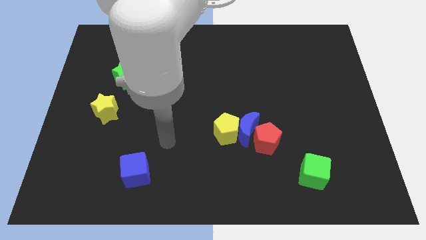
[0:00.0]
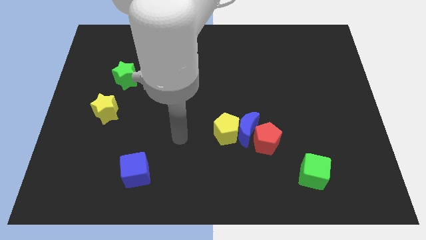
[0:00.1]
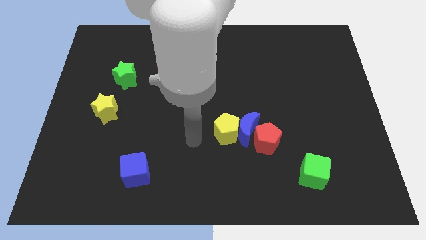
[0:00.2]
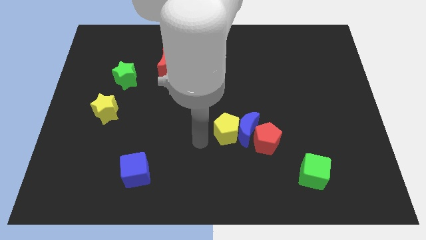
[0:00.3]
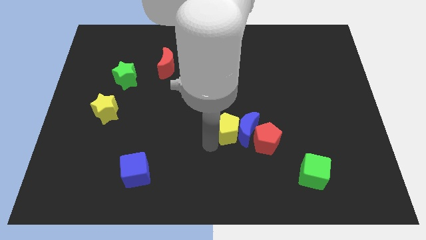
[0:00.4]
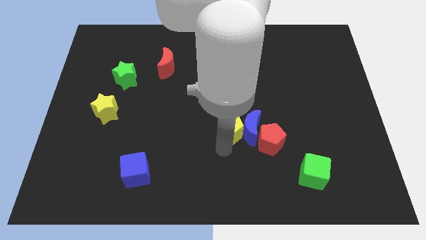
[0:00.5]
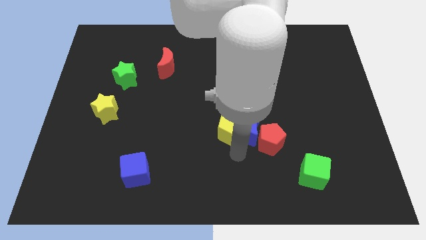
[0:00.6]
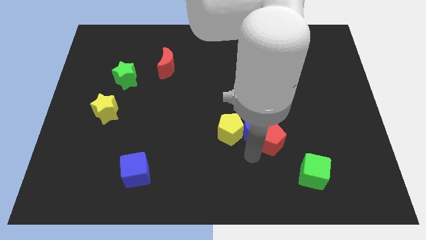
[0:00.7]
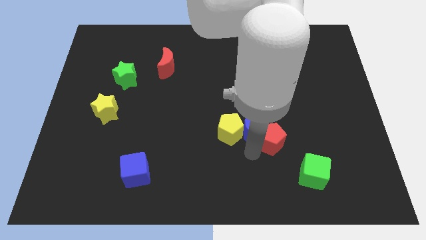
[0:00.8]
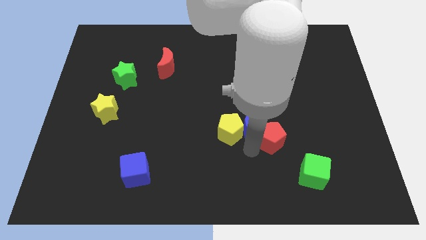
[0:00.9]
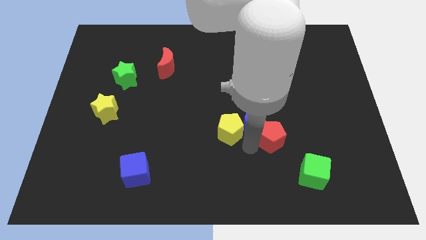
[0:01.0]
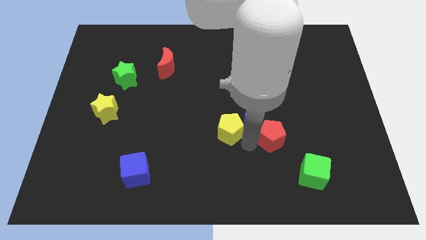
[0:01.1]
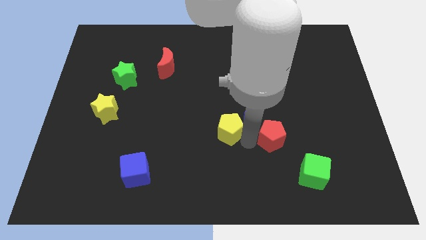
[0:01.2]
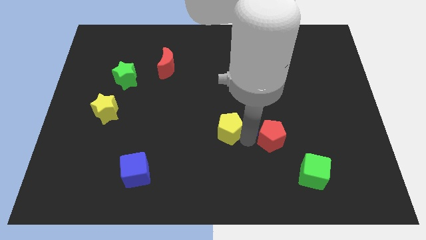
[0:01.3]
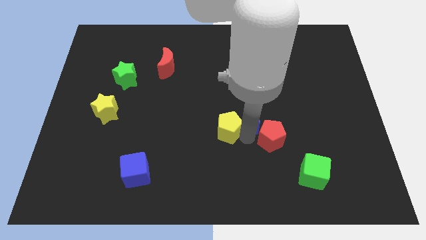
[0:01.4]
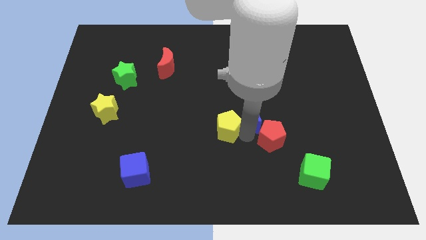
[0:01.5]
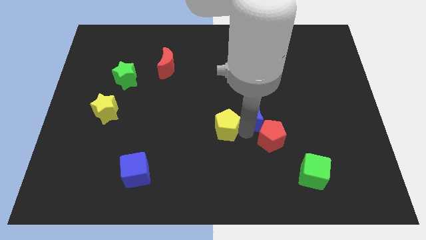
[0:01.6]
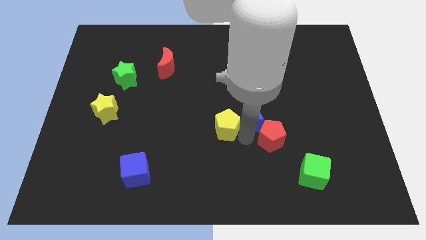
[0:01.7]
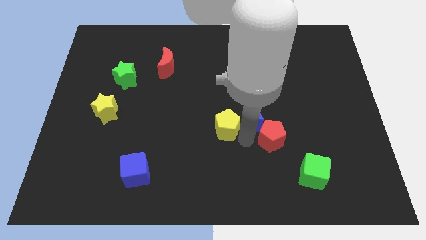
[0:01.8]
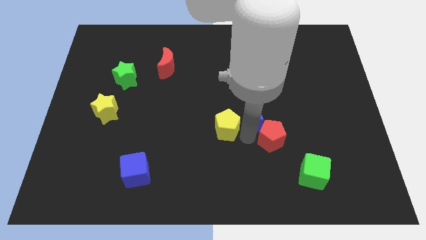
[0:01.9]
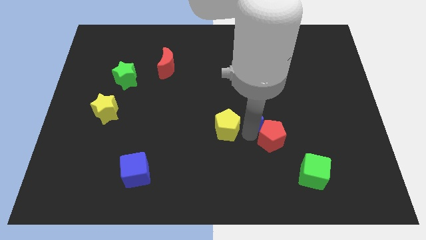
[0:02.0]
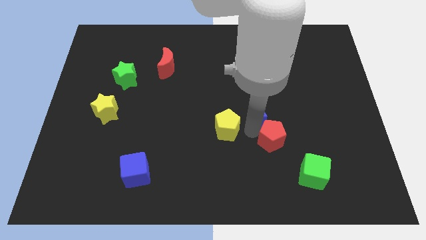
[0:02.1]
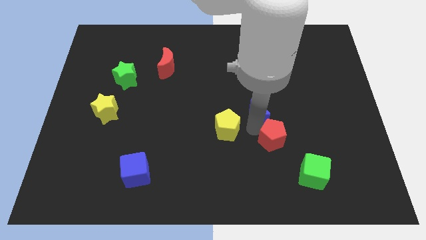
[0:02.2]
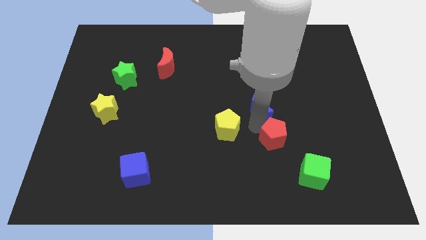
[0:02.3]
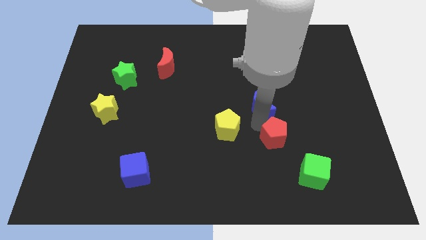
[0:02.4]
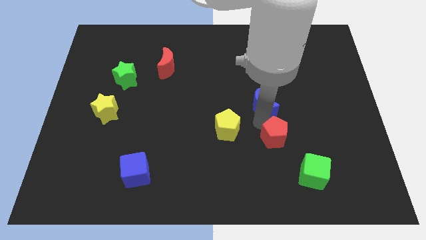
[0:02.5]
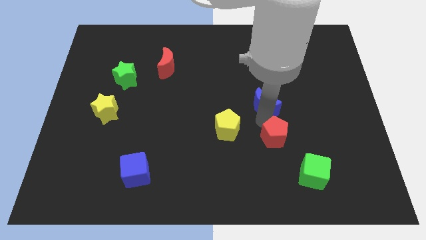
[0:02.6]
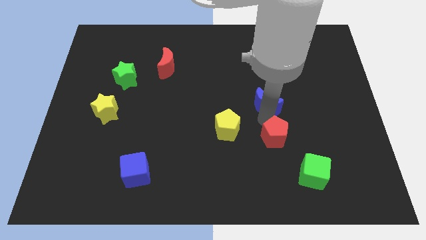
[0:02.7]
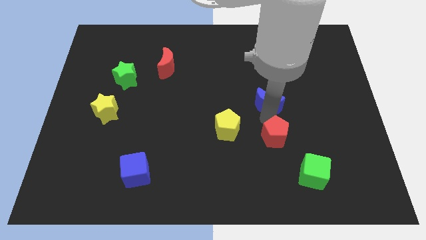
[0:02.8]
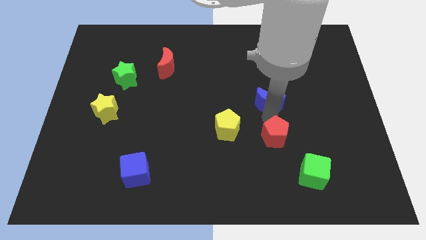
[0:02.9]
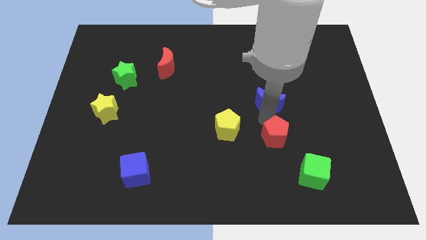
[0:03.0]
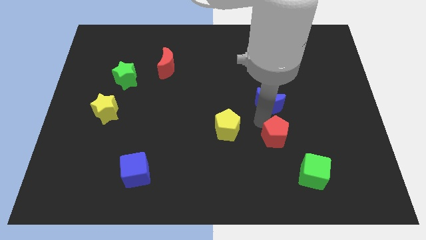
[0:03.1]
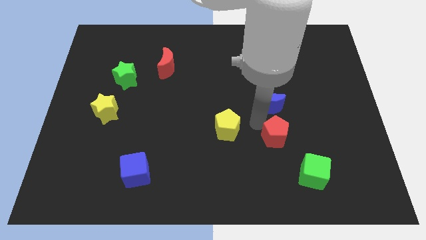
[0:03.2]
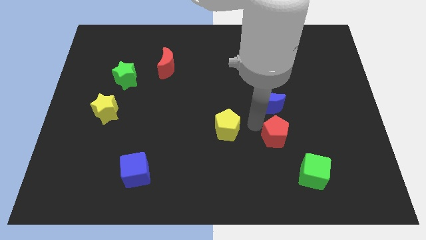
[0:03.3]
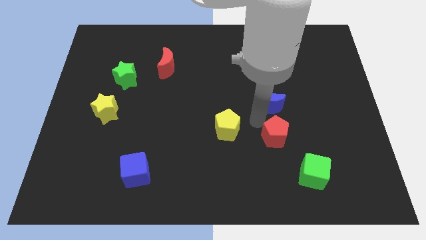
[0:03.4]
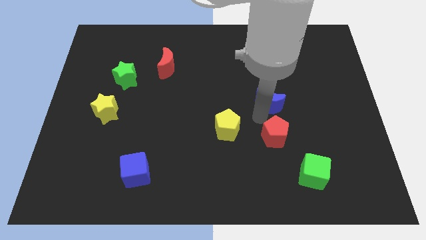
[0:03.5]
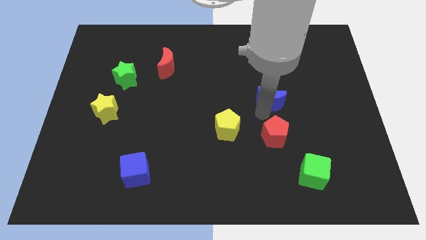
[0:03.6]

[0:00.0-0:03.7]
pull the blue moon apart from the yellow pentagon and red pentagon

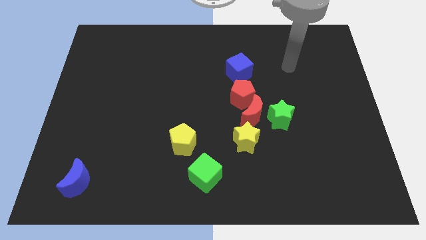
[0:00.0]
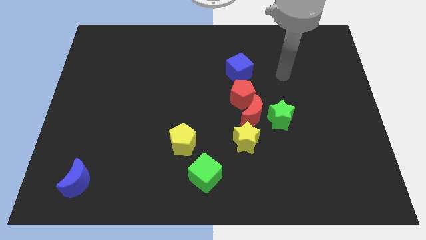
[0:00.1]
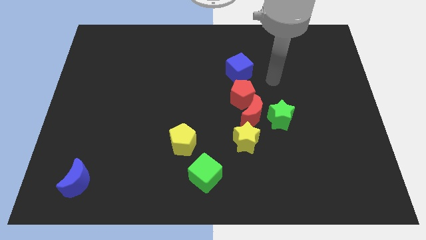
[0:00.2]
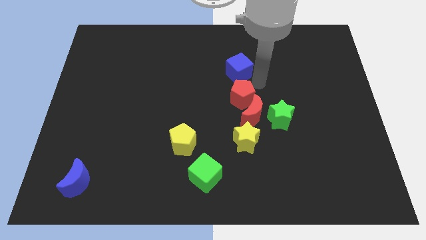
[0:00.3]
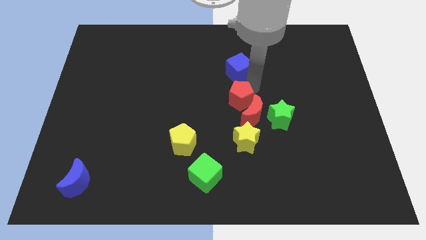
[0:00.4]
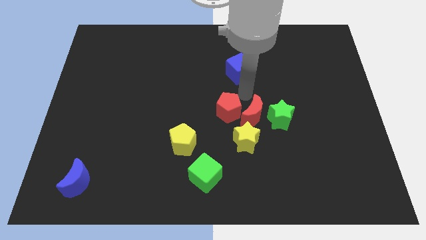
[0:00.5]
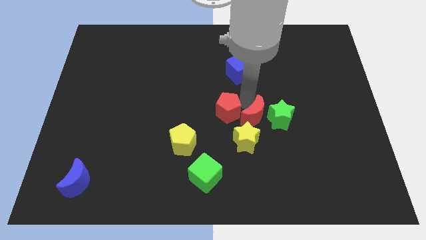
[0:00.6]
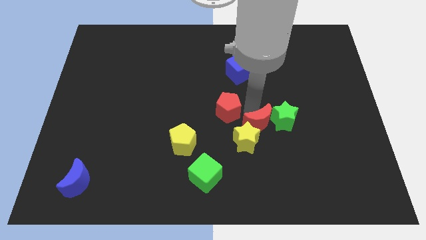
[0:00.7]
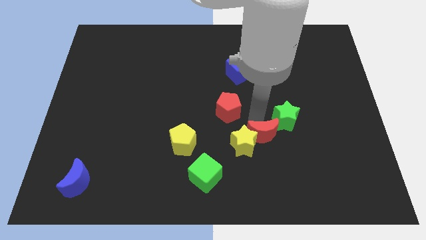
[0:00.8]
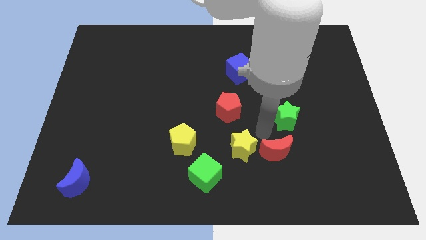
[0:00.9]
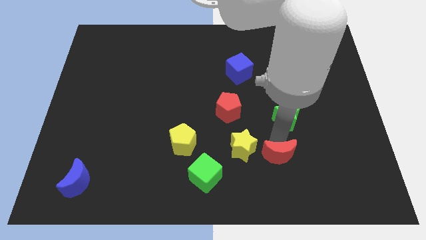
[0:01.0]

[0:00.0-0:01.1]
separate the green star from the red moon

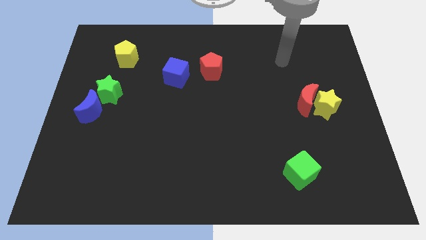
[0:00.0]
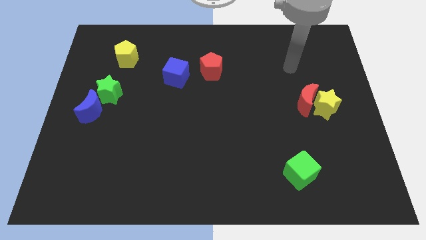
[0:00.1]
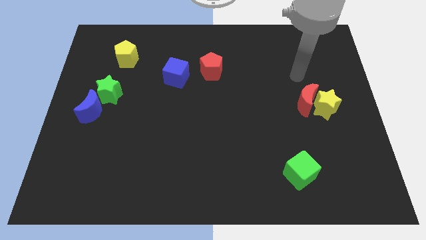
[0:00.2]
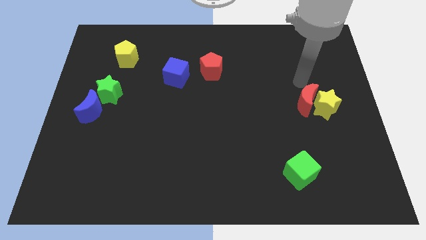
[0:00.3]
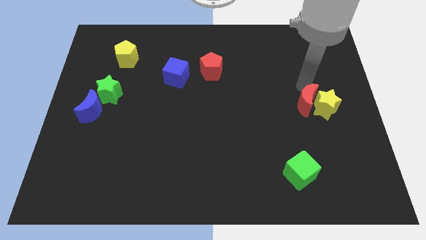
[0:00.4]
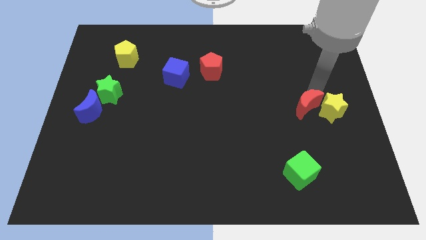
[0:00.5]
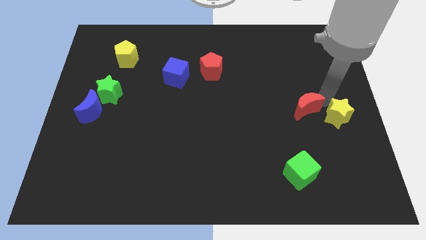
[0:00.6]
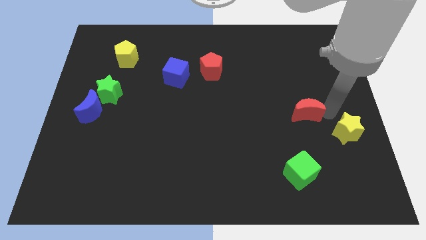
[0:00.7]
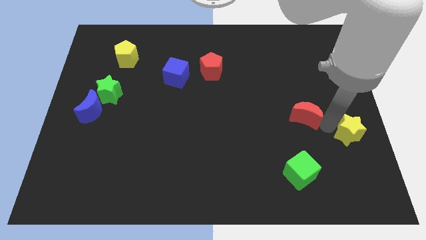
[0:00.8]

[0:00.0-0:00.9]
move the red moon away from the yellow star

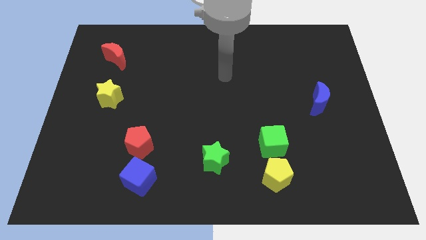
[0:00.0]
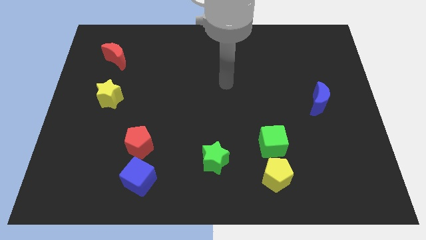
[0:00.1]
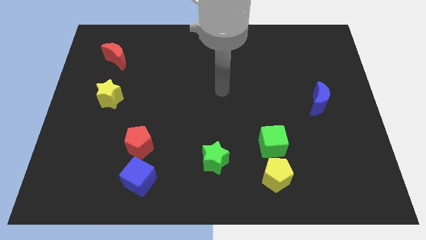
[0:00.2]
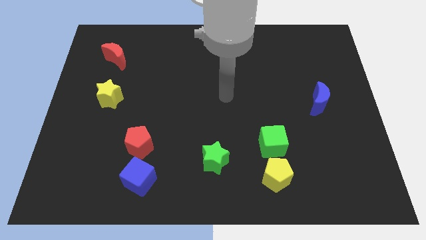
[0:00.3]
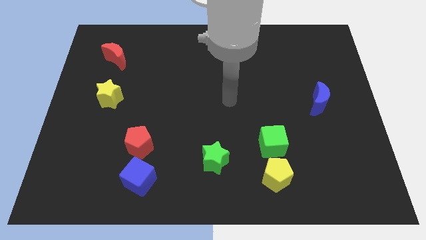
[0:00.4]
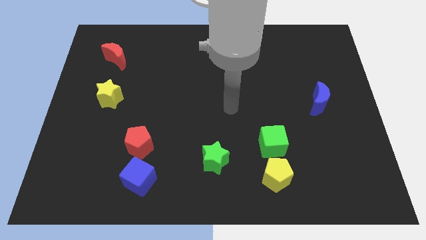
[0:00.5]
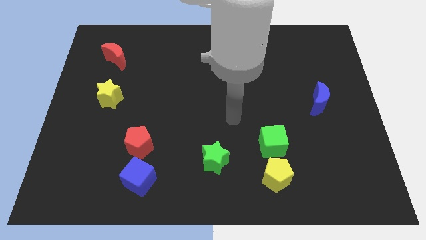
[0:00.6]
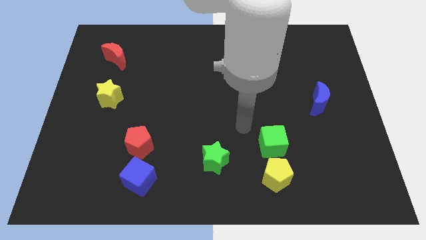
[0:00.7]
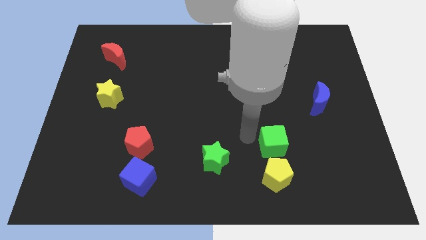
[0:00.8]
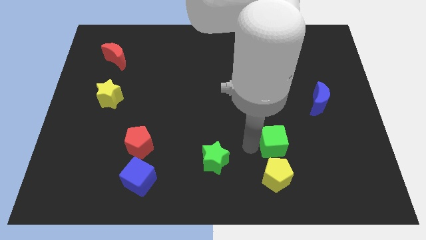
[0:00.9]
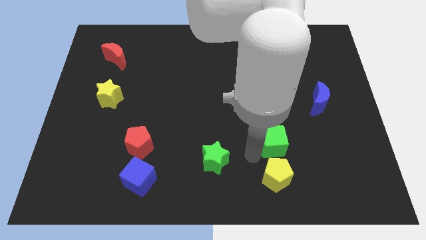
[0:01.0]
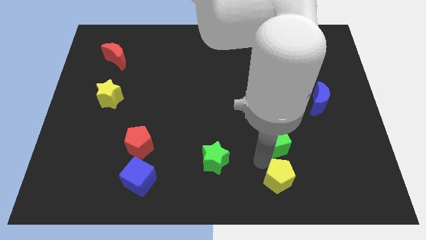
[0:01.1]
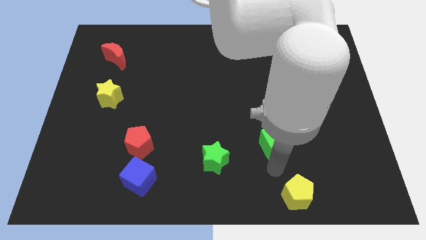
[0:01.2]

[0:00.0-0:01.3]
pull the green cube apart from the yellow pentagon

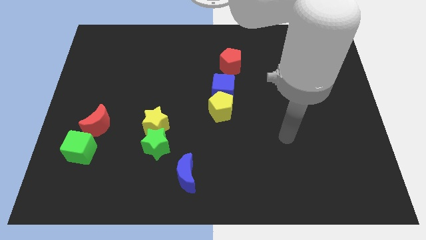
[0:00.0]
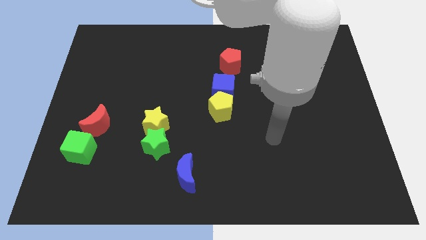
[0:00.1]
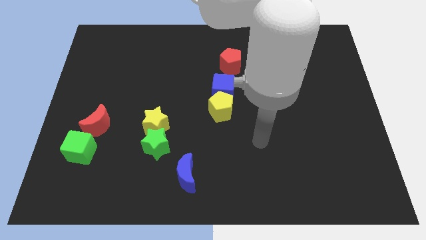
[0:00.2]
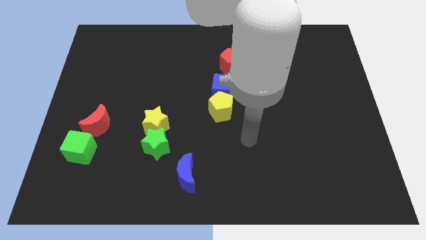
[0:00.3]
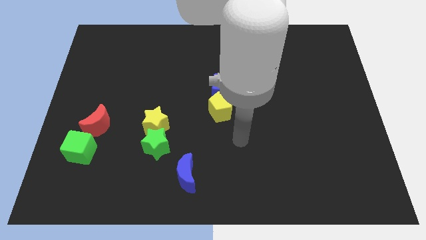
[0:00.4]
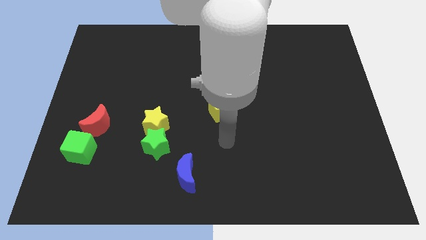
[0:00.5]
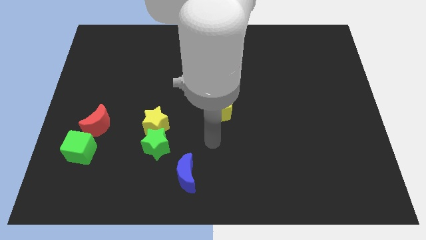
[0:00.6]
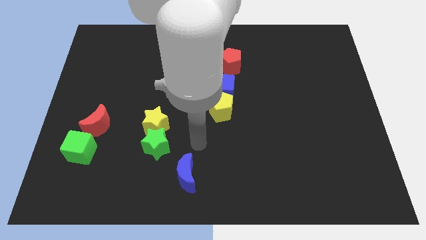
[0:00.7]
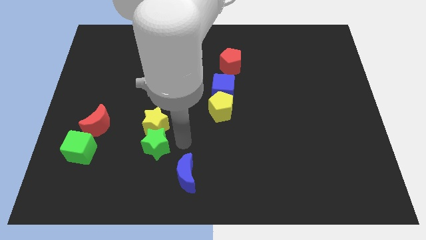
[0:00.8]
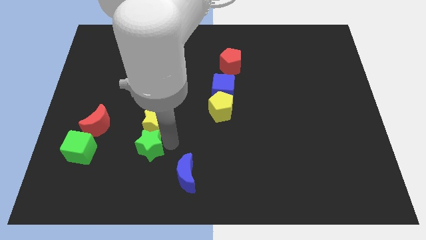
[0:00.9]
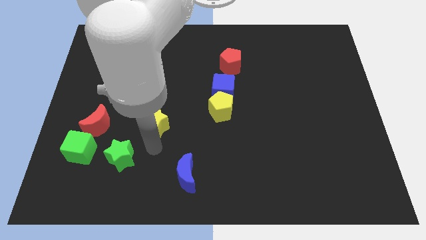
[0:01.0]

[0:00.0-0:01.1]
separate the yellow star from the green star

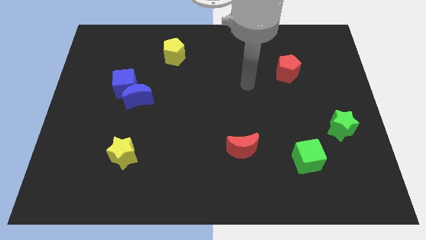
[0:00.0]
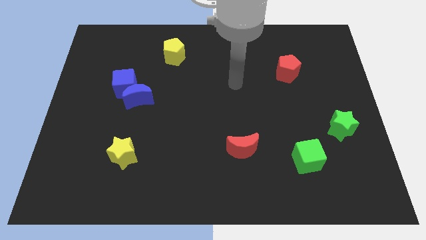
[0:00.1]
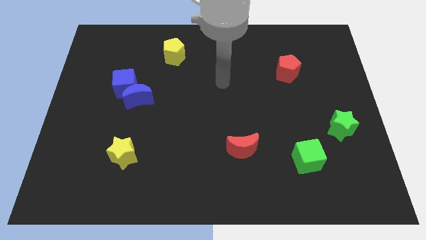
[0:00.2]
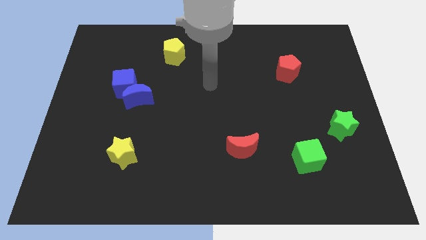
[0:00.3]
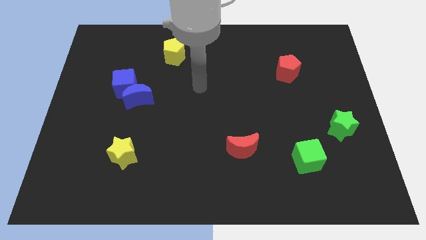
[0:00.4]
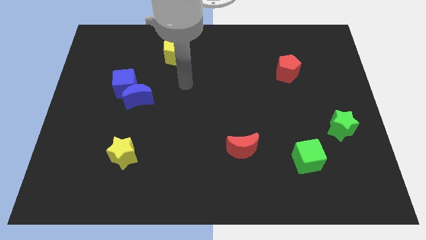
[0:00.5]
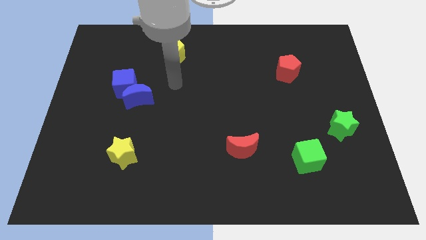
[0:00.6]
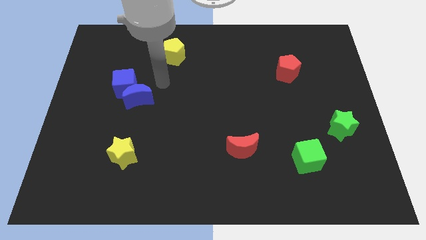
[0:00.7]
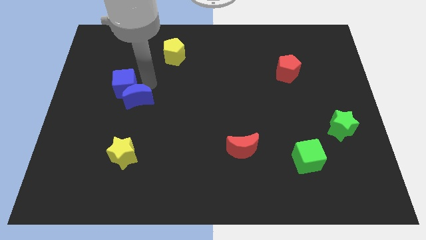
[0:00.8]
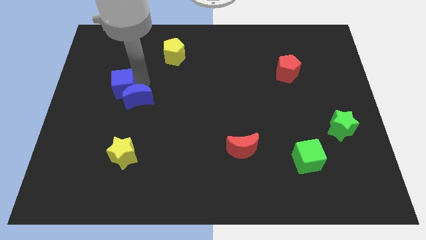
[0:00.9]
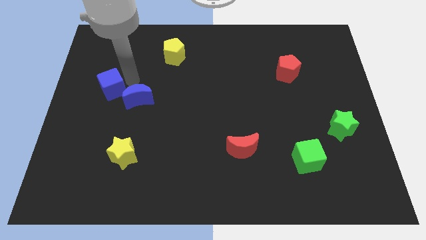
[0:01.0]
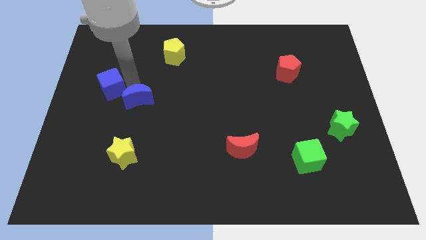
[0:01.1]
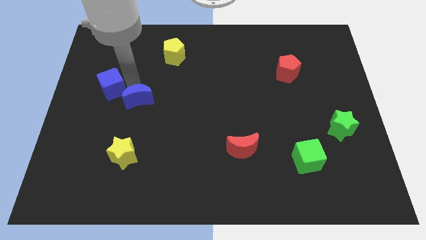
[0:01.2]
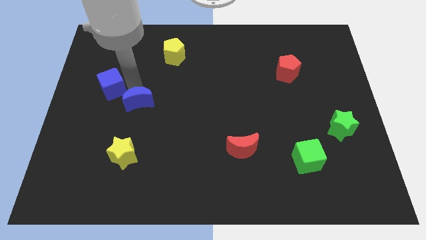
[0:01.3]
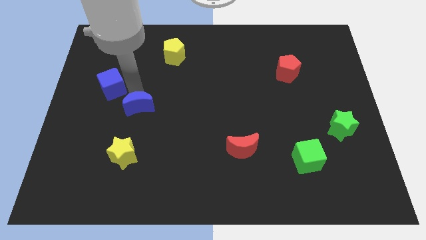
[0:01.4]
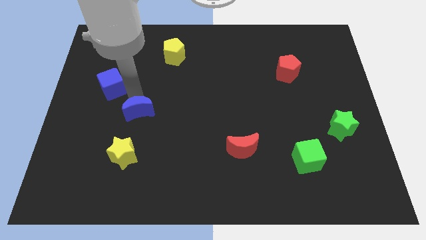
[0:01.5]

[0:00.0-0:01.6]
pull the blue moon apart from the blue cube
